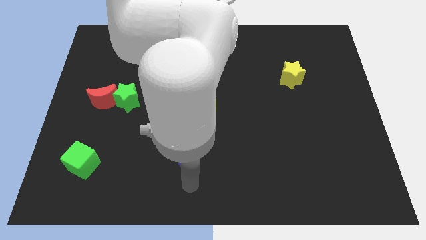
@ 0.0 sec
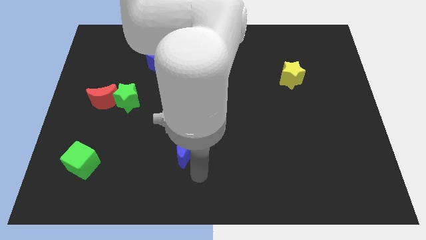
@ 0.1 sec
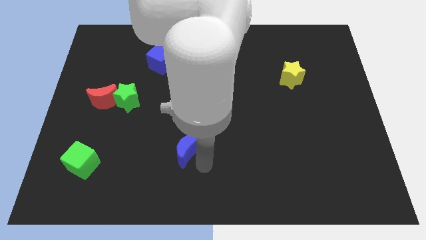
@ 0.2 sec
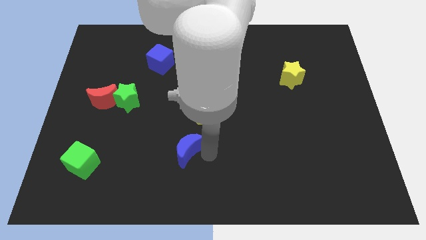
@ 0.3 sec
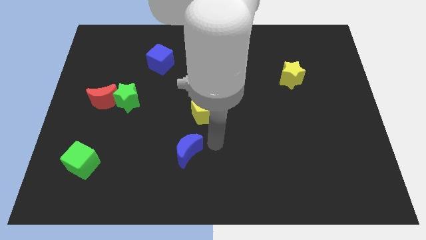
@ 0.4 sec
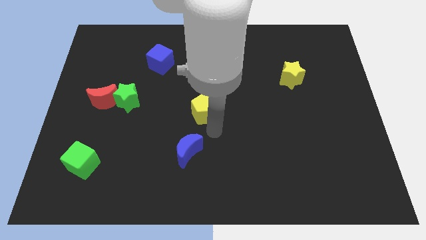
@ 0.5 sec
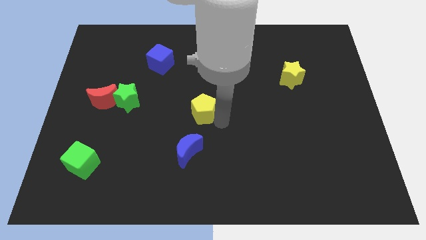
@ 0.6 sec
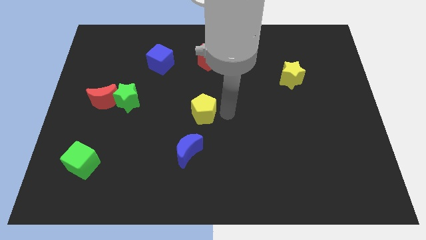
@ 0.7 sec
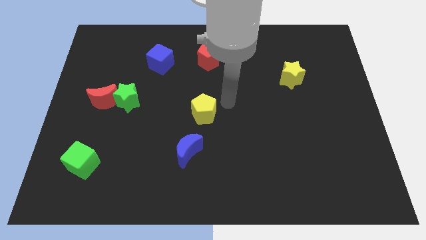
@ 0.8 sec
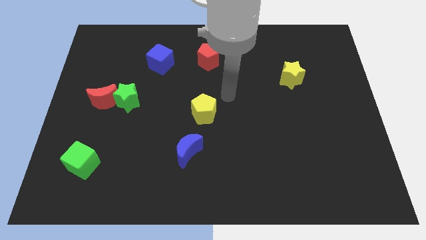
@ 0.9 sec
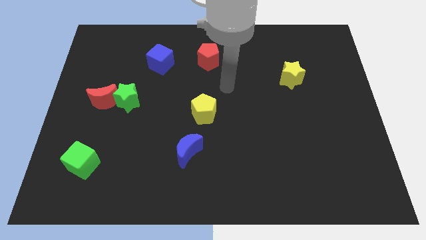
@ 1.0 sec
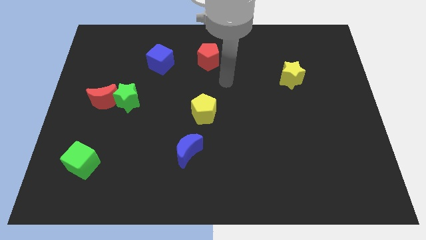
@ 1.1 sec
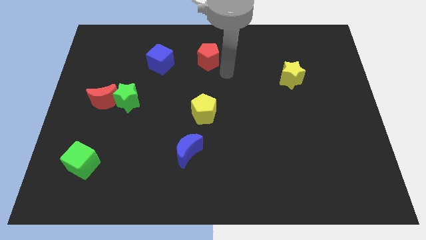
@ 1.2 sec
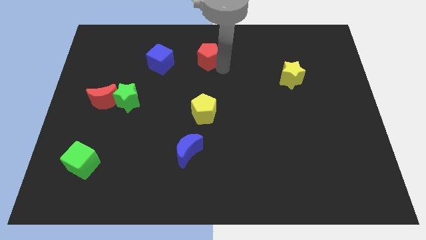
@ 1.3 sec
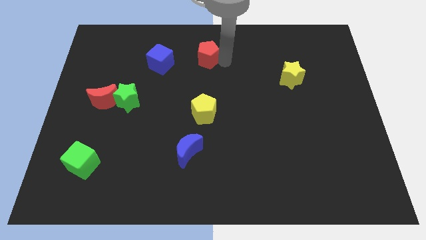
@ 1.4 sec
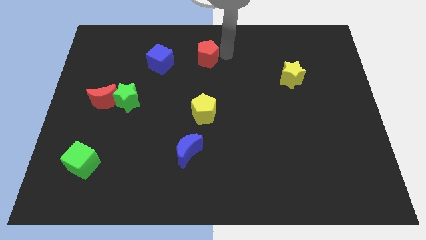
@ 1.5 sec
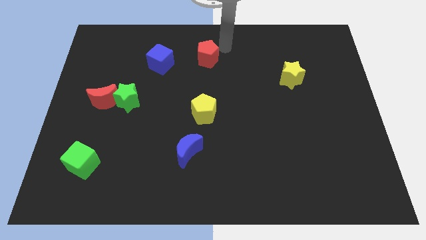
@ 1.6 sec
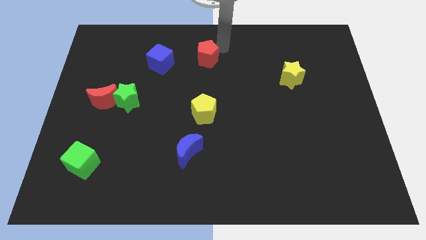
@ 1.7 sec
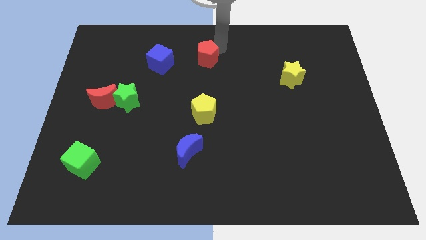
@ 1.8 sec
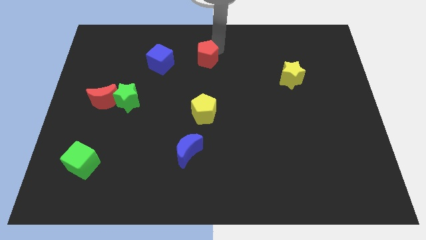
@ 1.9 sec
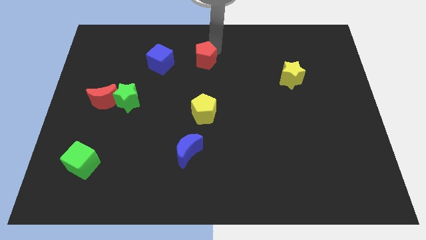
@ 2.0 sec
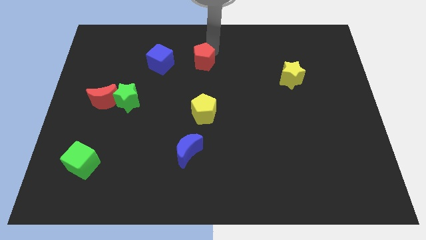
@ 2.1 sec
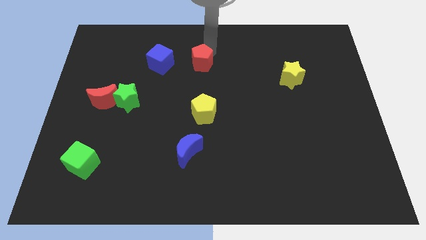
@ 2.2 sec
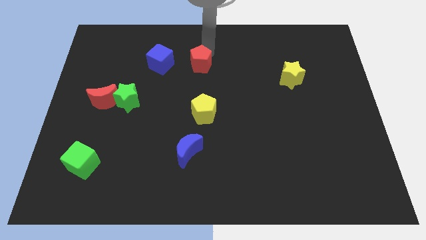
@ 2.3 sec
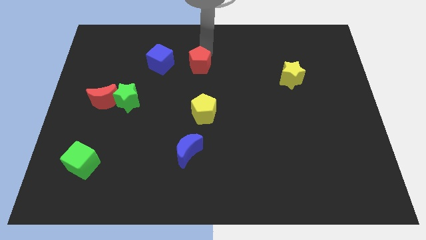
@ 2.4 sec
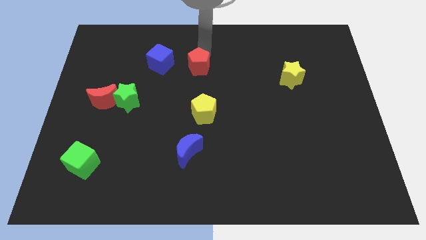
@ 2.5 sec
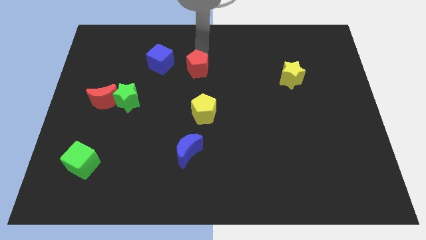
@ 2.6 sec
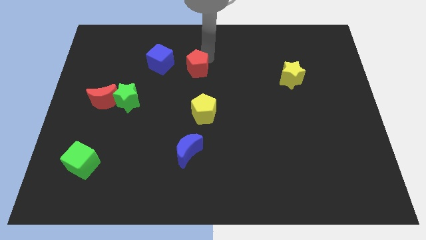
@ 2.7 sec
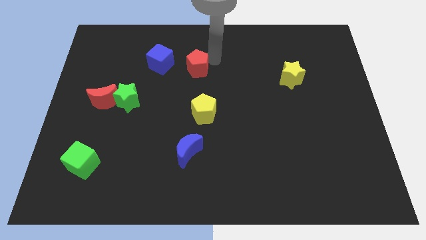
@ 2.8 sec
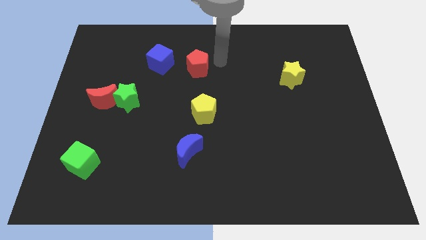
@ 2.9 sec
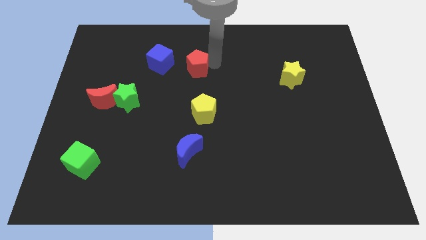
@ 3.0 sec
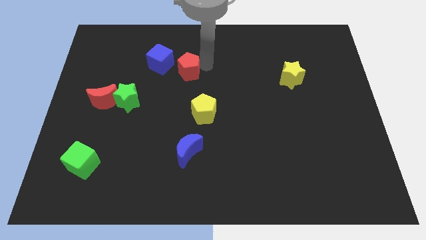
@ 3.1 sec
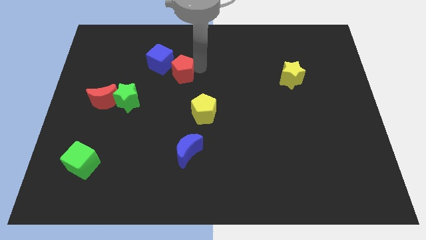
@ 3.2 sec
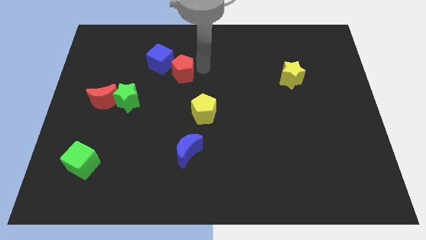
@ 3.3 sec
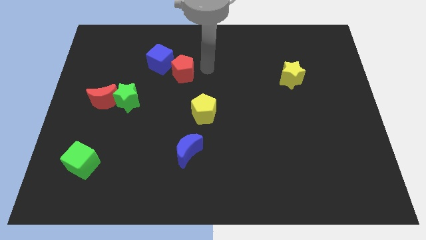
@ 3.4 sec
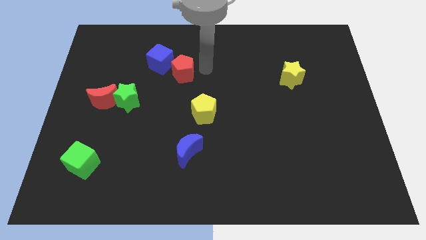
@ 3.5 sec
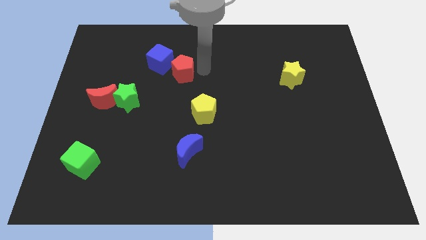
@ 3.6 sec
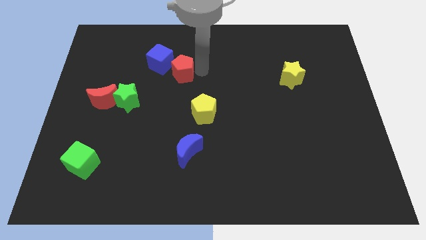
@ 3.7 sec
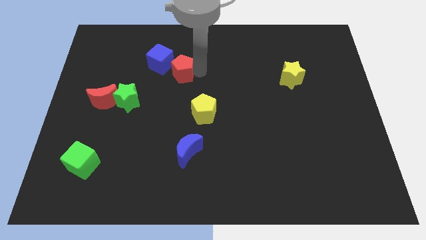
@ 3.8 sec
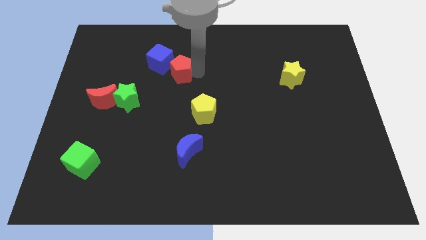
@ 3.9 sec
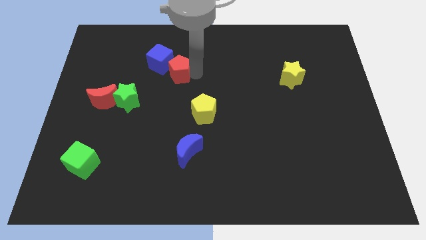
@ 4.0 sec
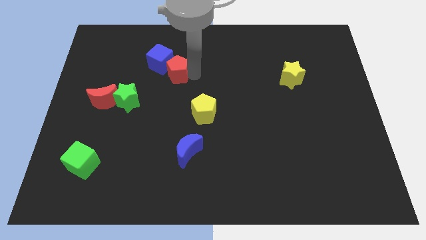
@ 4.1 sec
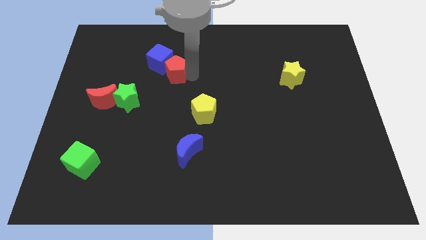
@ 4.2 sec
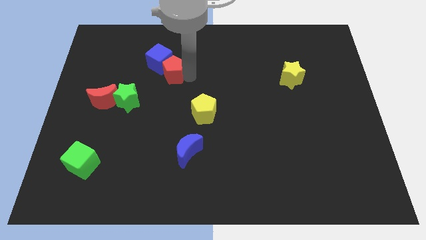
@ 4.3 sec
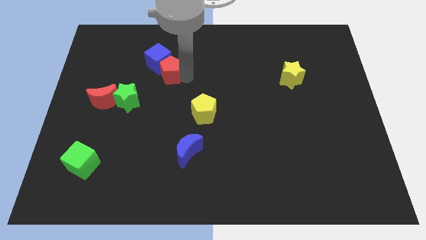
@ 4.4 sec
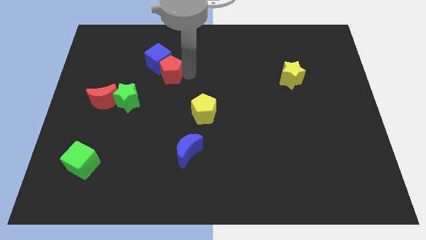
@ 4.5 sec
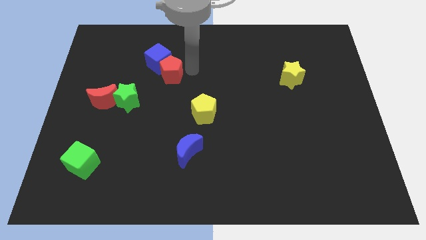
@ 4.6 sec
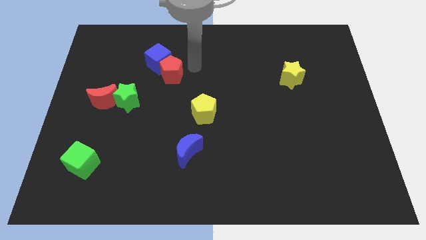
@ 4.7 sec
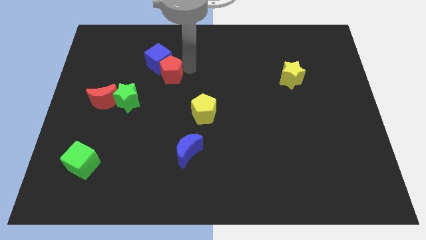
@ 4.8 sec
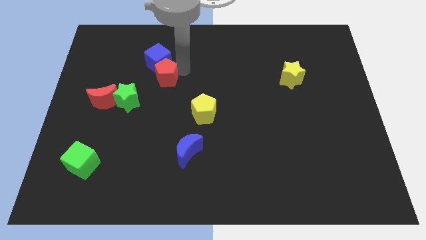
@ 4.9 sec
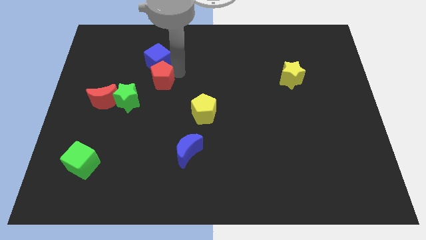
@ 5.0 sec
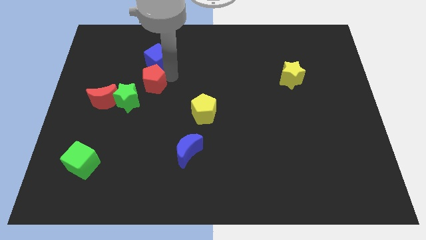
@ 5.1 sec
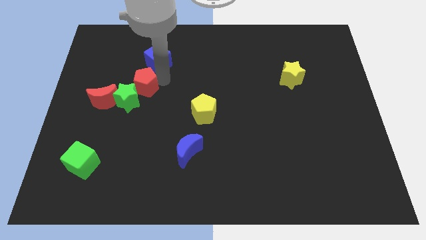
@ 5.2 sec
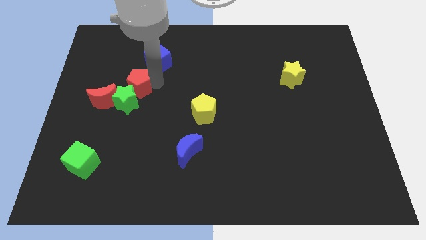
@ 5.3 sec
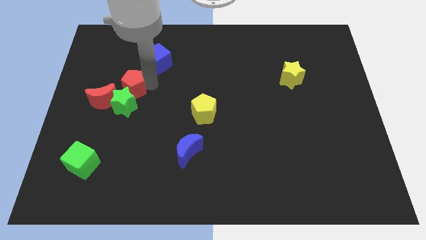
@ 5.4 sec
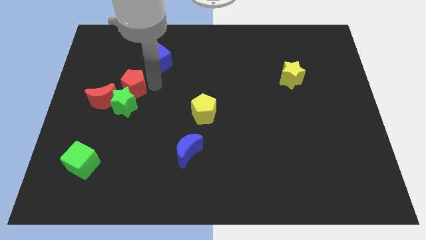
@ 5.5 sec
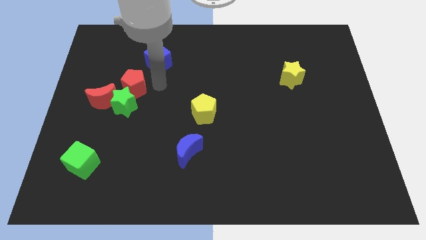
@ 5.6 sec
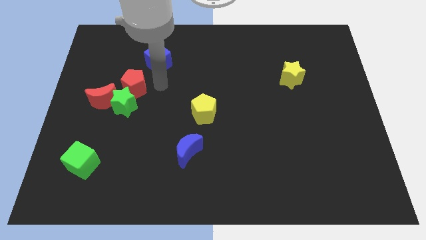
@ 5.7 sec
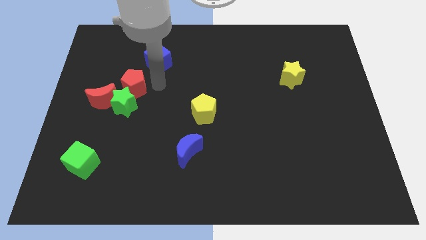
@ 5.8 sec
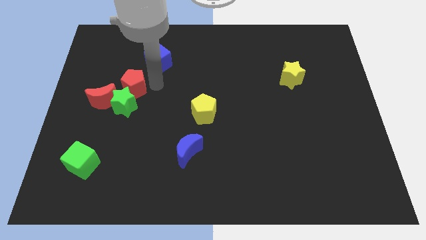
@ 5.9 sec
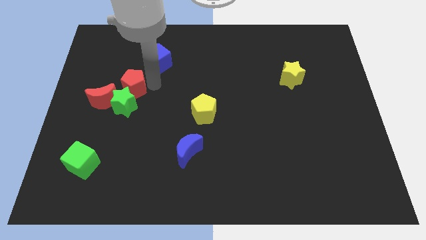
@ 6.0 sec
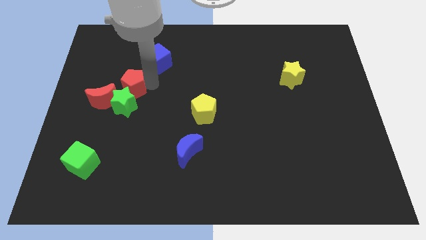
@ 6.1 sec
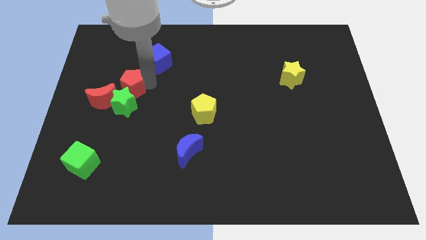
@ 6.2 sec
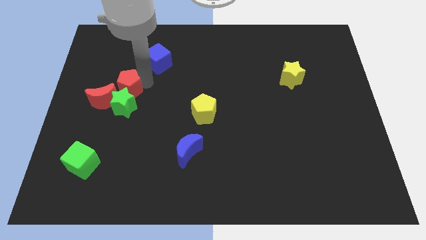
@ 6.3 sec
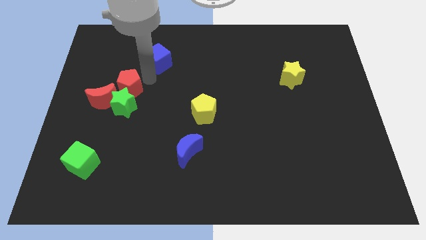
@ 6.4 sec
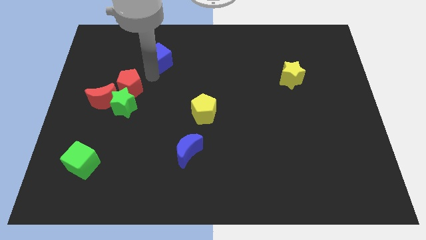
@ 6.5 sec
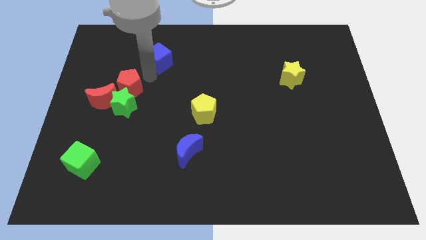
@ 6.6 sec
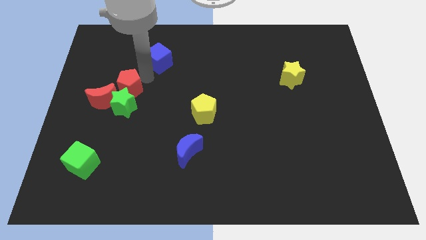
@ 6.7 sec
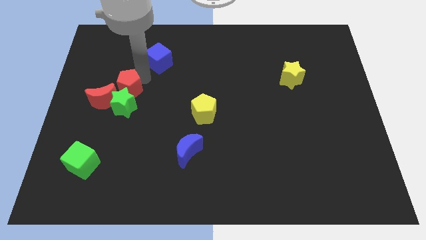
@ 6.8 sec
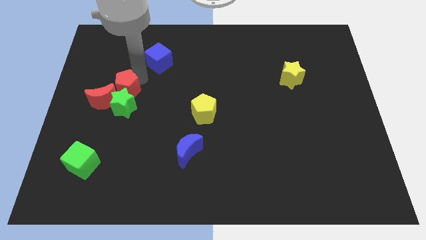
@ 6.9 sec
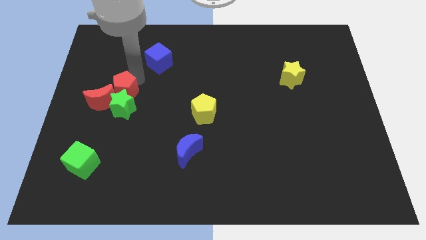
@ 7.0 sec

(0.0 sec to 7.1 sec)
slide the red pentagon close to the red moon
